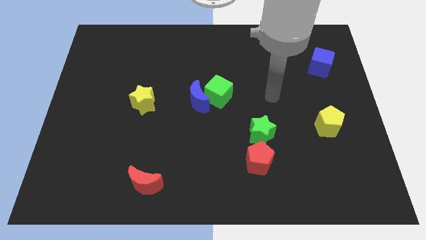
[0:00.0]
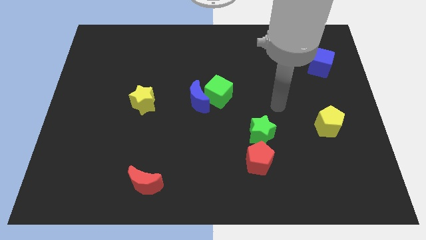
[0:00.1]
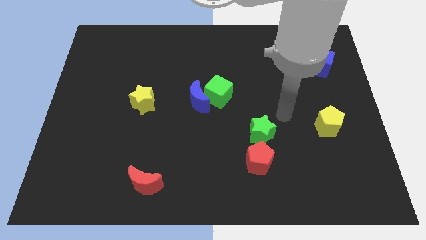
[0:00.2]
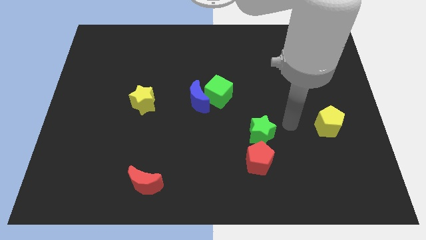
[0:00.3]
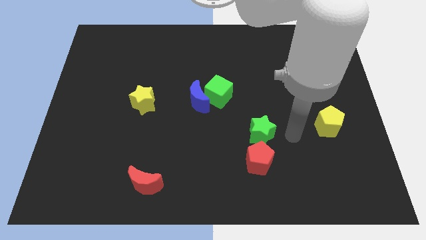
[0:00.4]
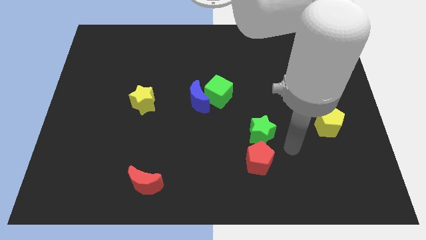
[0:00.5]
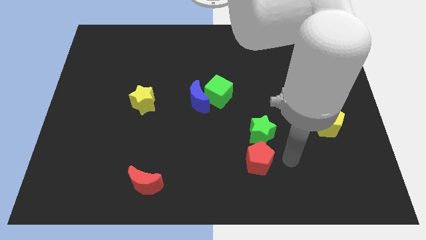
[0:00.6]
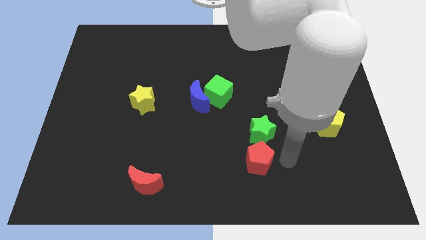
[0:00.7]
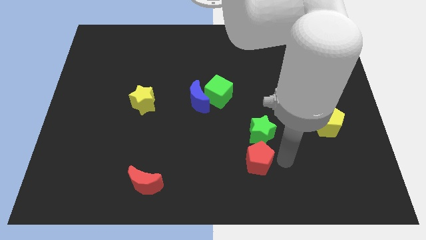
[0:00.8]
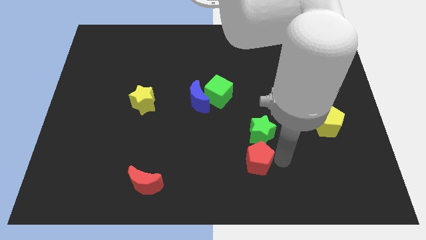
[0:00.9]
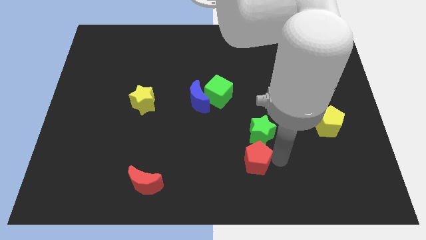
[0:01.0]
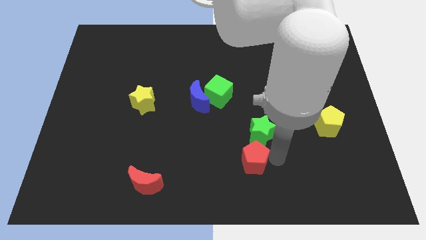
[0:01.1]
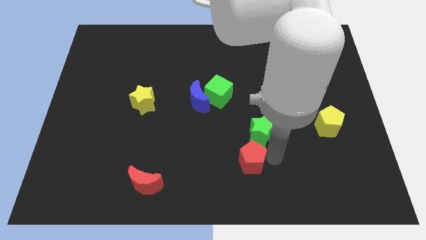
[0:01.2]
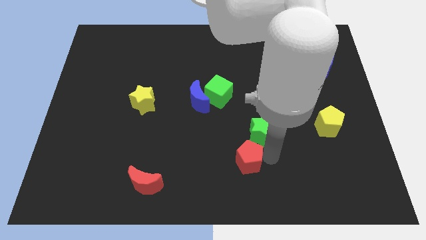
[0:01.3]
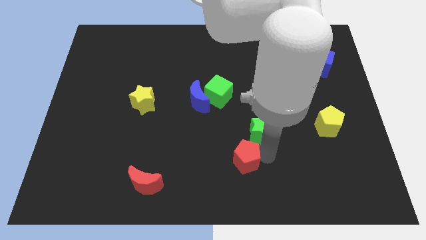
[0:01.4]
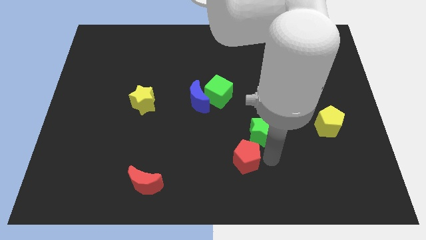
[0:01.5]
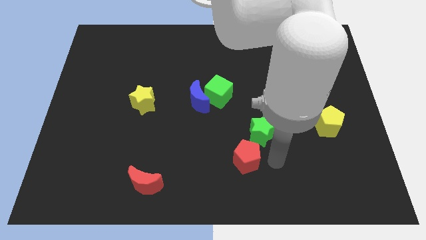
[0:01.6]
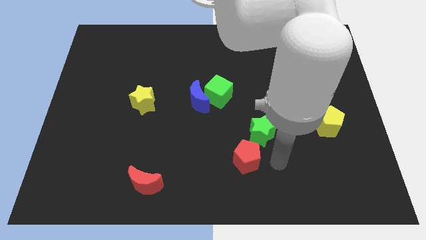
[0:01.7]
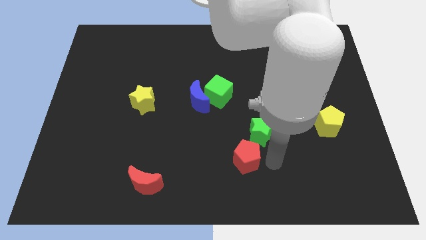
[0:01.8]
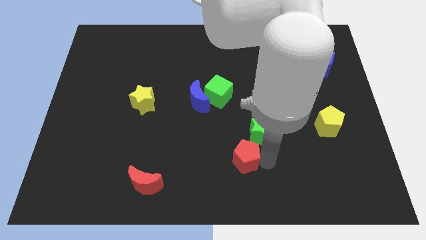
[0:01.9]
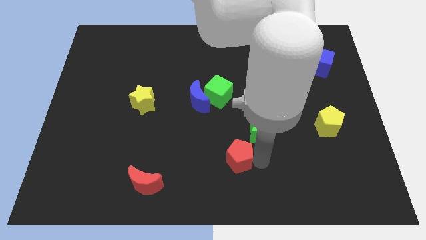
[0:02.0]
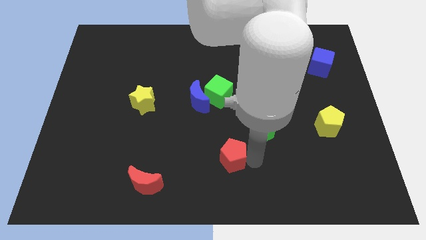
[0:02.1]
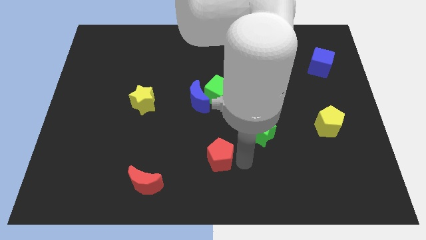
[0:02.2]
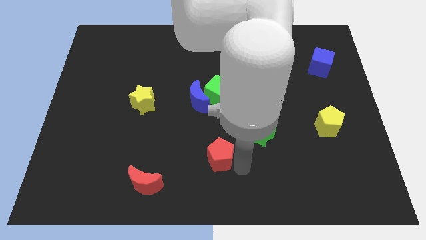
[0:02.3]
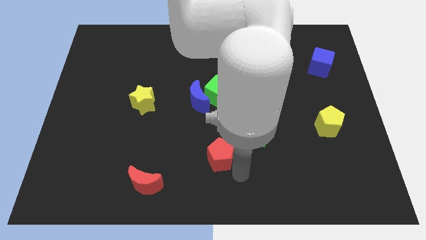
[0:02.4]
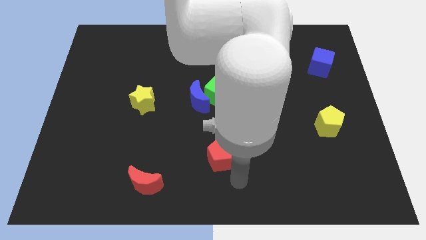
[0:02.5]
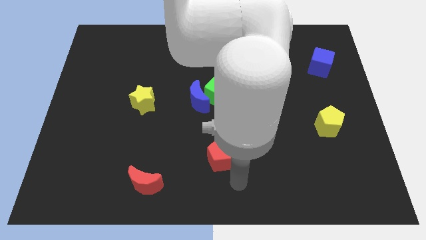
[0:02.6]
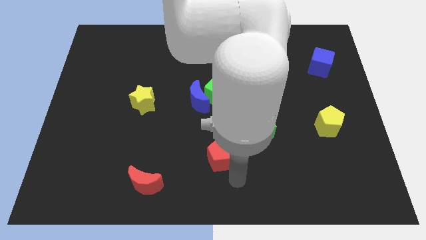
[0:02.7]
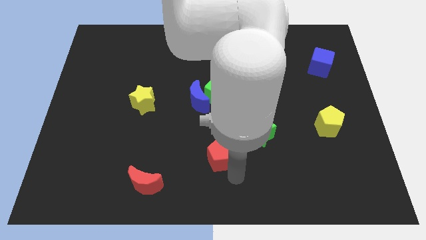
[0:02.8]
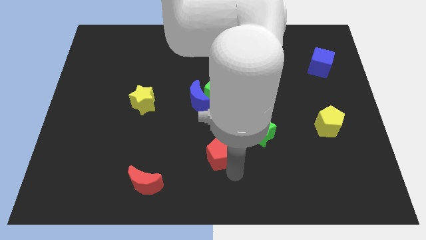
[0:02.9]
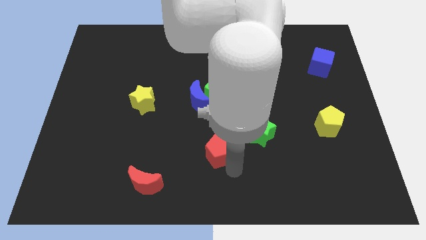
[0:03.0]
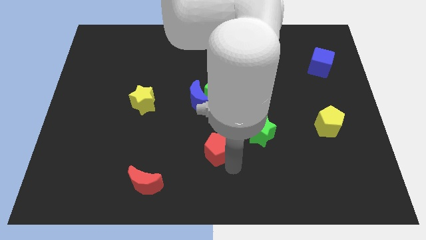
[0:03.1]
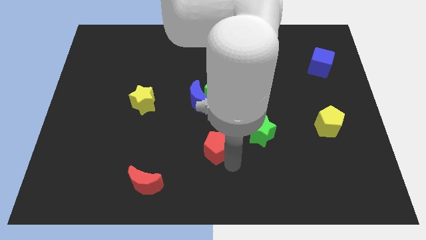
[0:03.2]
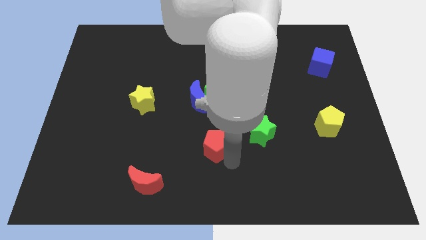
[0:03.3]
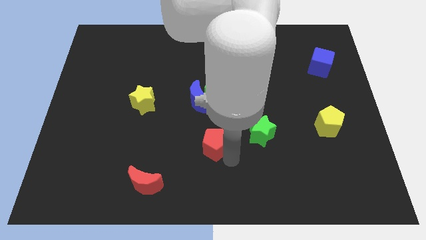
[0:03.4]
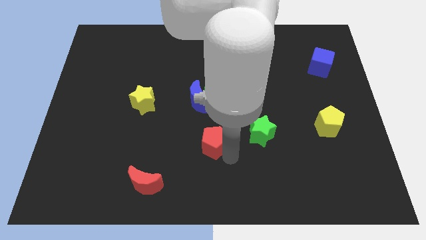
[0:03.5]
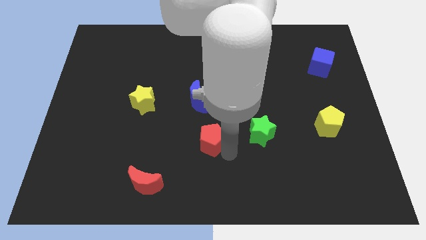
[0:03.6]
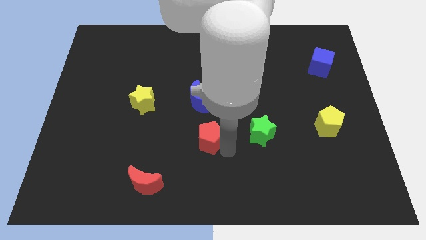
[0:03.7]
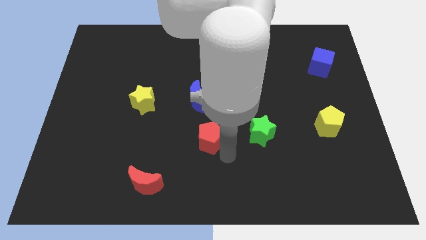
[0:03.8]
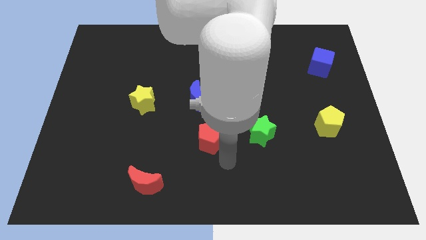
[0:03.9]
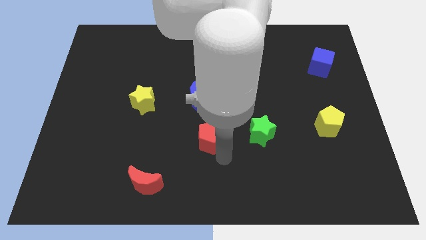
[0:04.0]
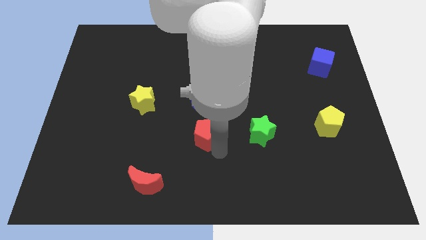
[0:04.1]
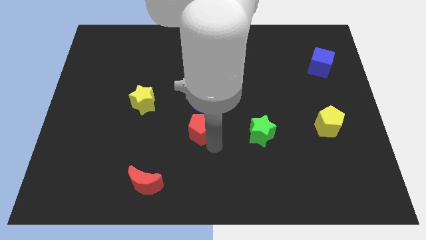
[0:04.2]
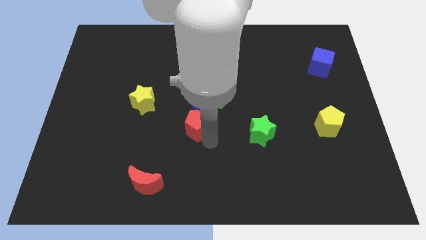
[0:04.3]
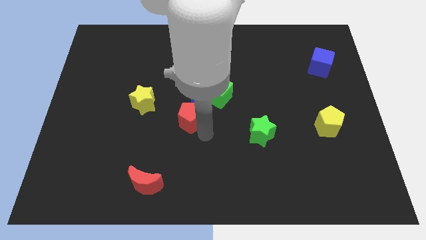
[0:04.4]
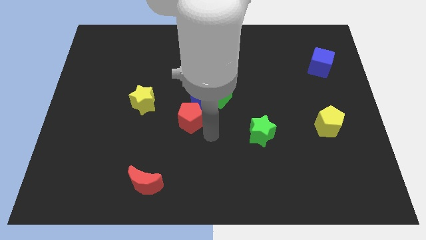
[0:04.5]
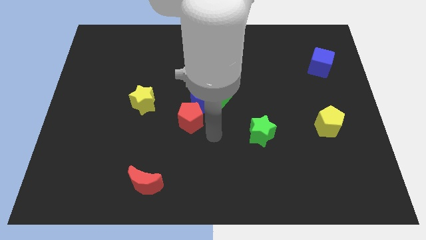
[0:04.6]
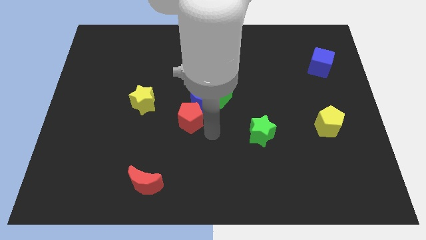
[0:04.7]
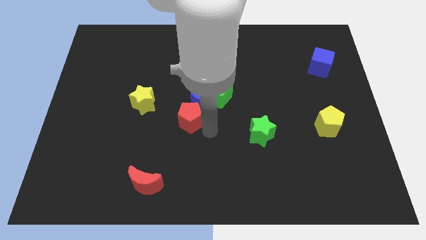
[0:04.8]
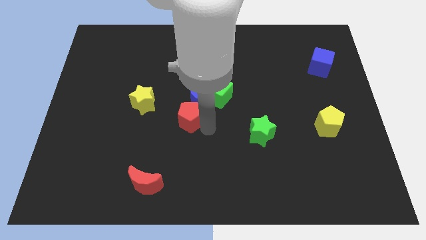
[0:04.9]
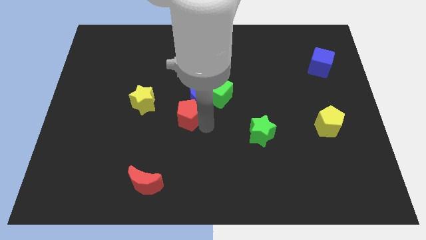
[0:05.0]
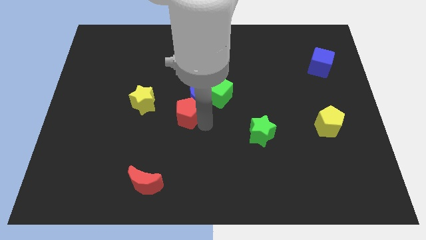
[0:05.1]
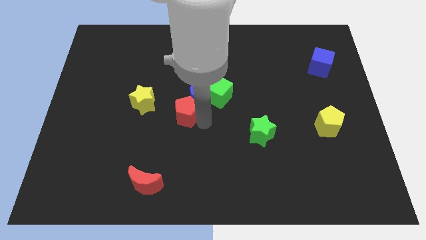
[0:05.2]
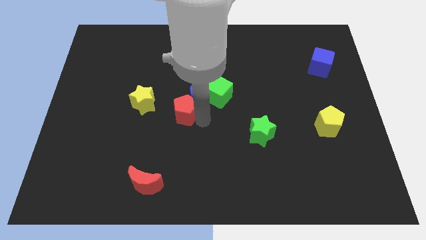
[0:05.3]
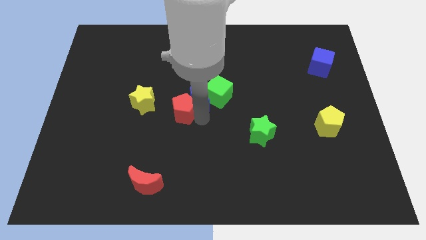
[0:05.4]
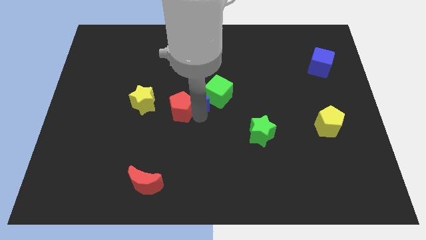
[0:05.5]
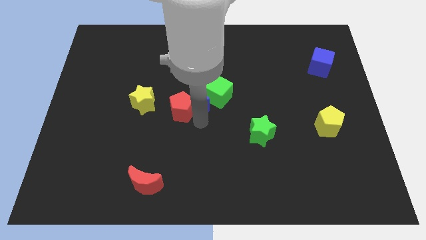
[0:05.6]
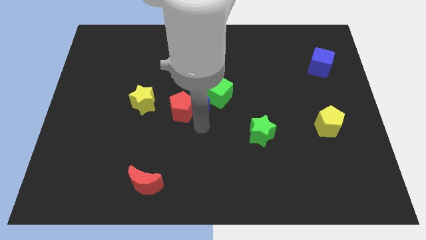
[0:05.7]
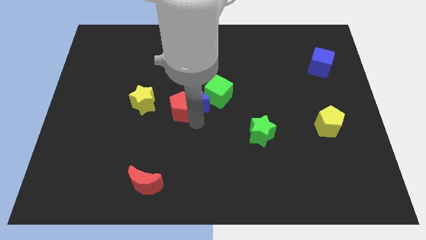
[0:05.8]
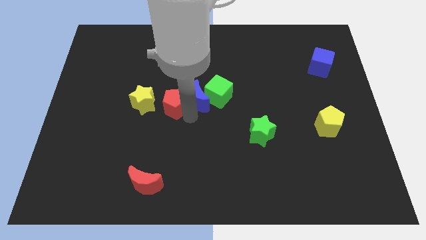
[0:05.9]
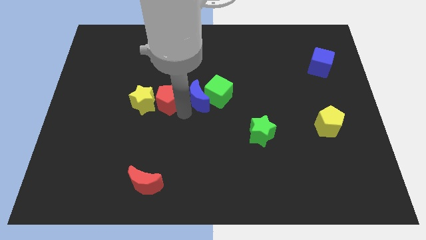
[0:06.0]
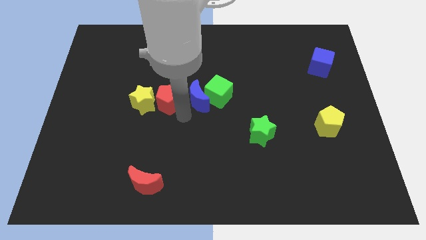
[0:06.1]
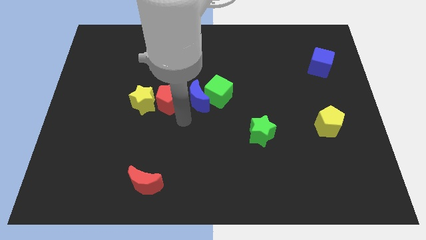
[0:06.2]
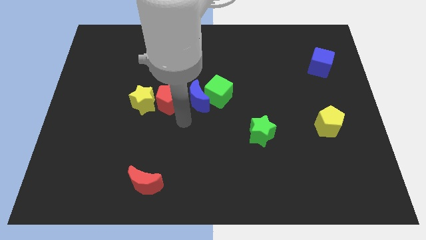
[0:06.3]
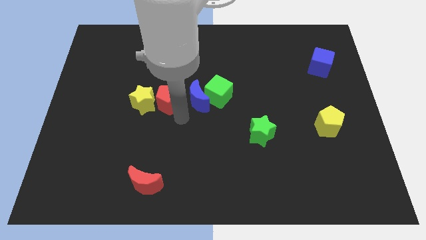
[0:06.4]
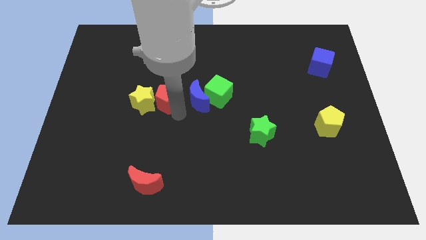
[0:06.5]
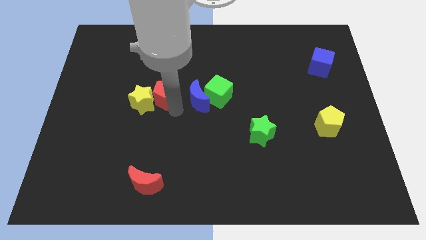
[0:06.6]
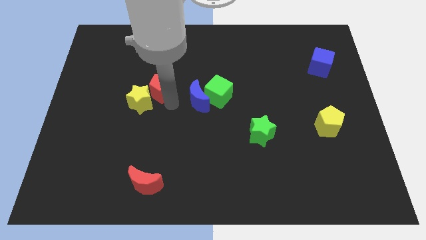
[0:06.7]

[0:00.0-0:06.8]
move the red pentagon to the top of the yellow star

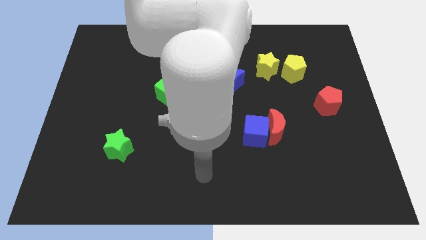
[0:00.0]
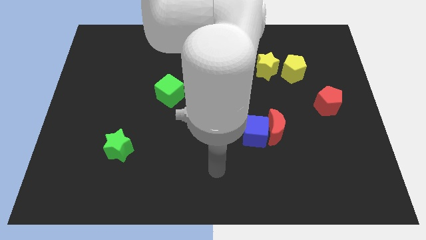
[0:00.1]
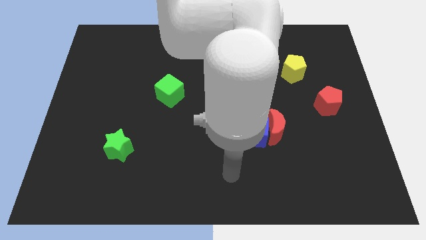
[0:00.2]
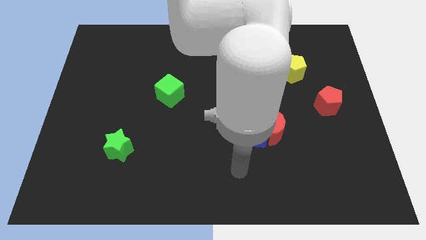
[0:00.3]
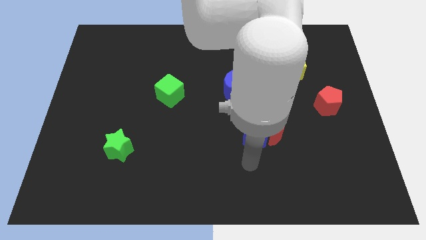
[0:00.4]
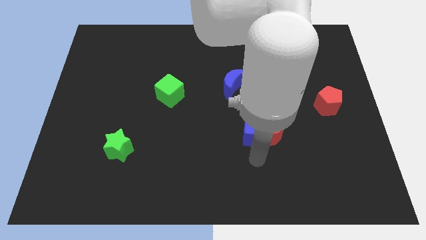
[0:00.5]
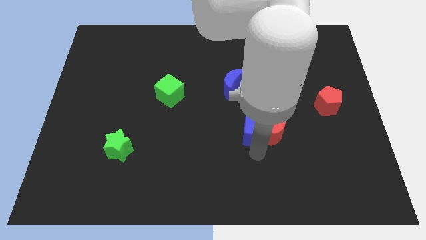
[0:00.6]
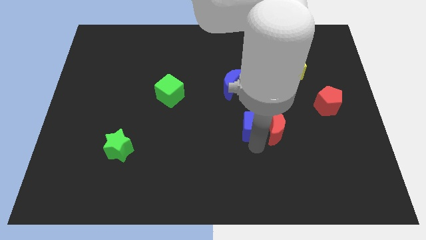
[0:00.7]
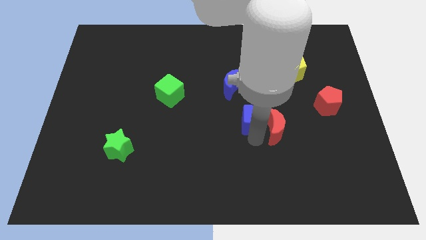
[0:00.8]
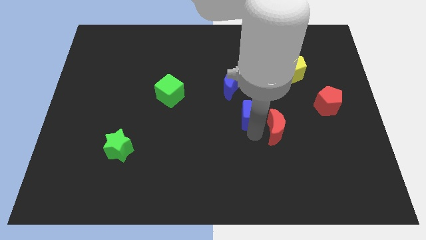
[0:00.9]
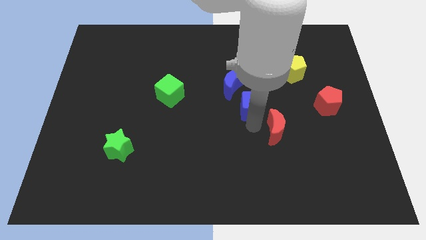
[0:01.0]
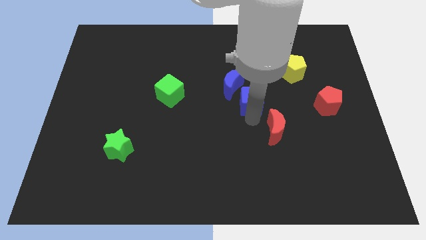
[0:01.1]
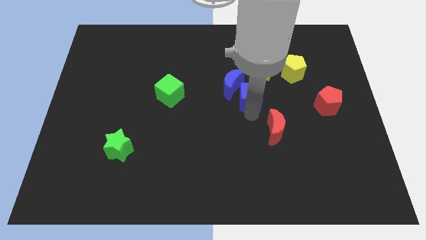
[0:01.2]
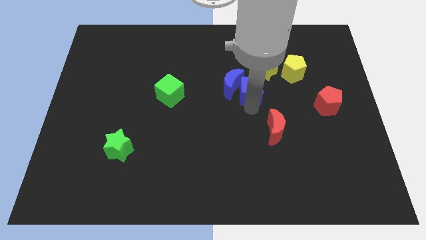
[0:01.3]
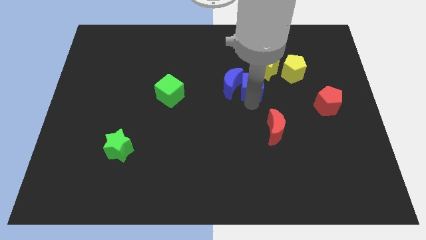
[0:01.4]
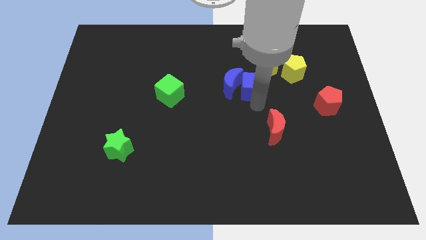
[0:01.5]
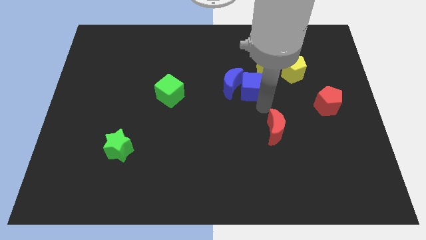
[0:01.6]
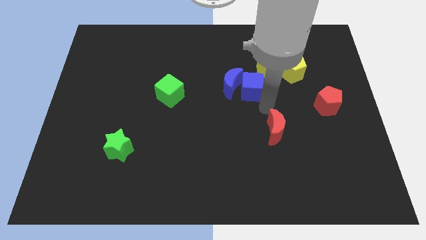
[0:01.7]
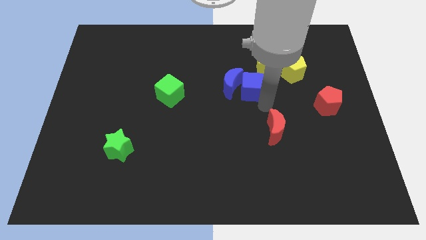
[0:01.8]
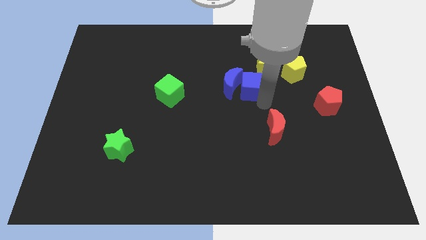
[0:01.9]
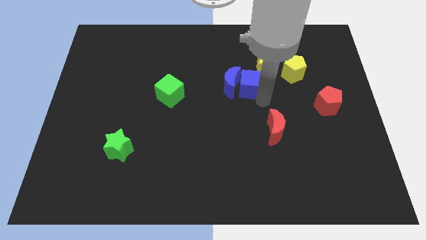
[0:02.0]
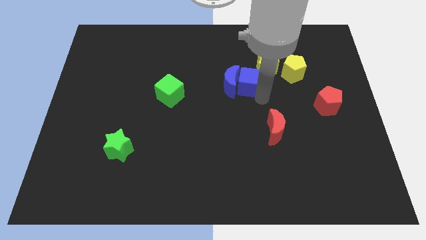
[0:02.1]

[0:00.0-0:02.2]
move the blue cube to the left of the yellow pentagon
